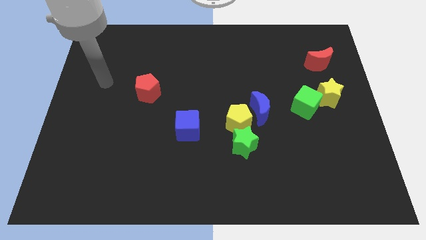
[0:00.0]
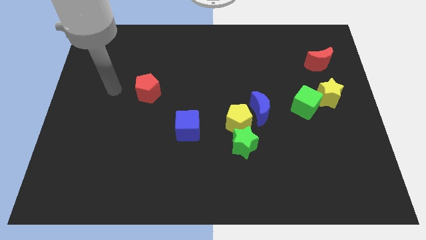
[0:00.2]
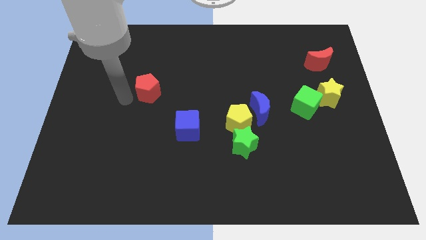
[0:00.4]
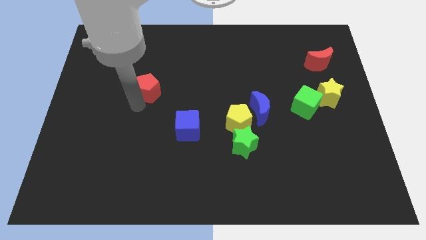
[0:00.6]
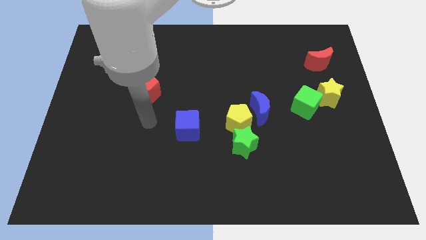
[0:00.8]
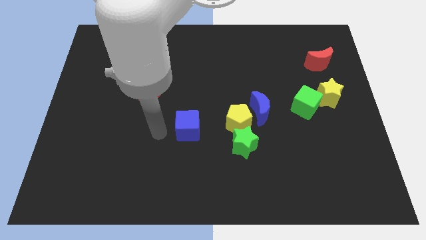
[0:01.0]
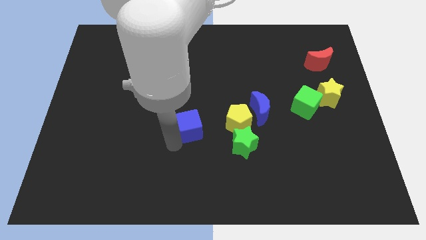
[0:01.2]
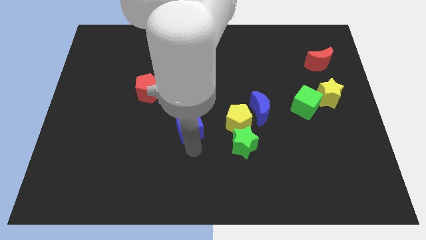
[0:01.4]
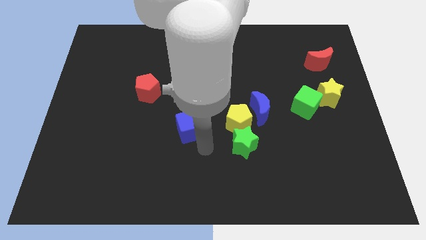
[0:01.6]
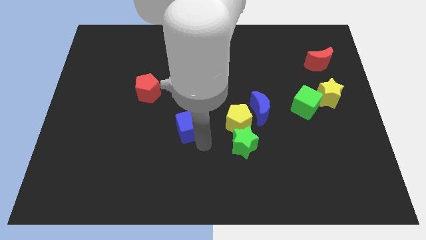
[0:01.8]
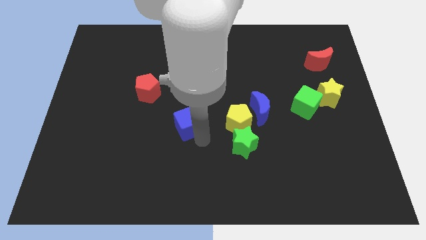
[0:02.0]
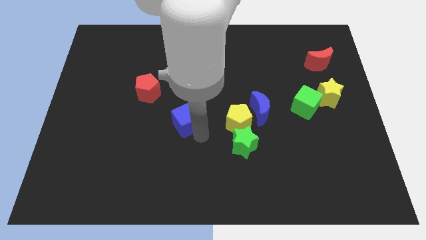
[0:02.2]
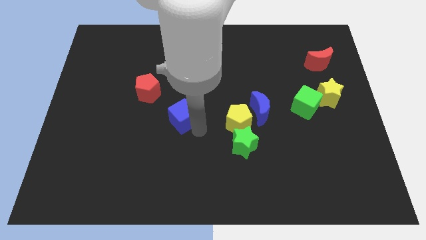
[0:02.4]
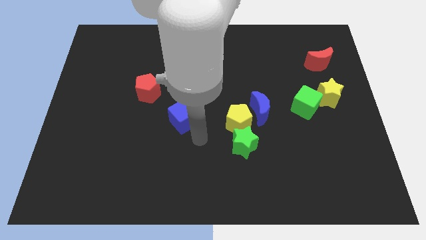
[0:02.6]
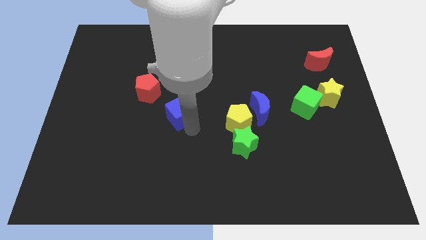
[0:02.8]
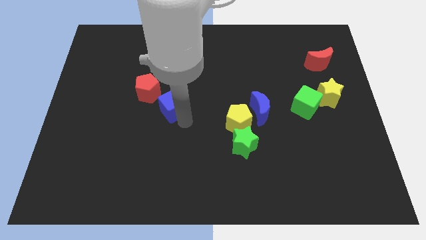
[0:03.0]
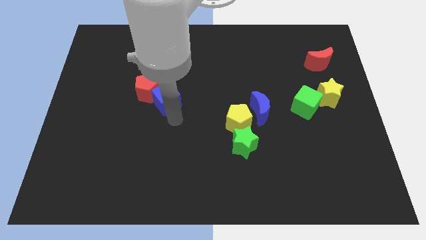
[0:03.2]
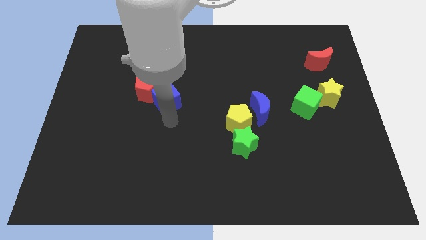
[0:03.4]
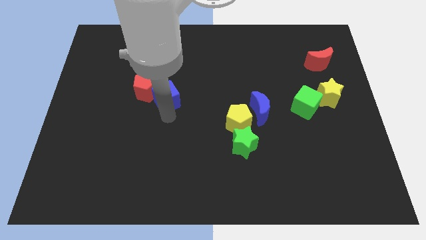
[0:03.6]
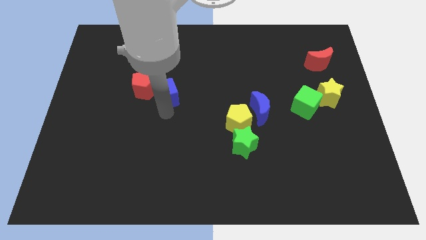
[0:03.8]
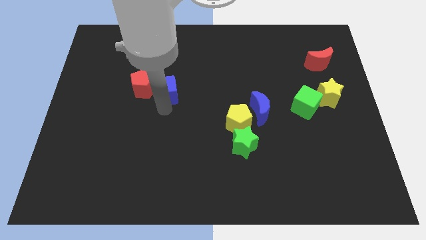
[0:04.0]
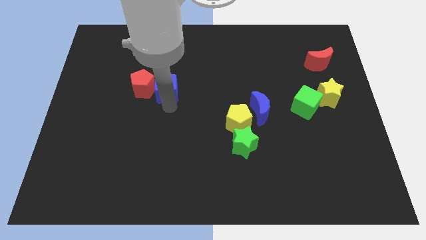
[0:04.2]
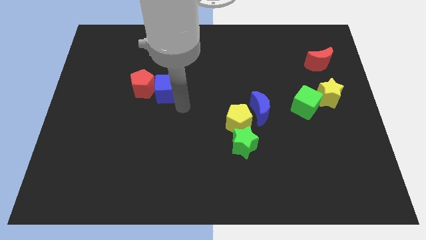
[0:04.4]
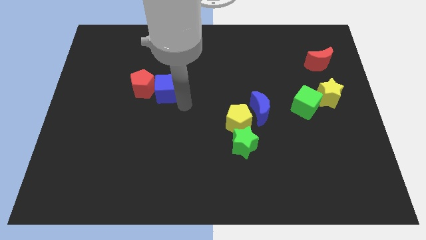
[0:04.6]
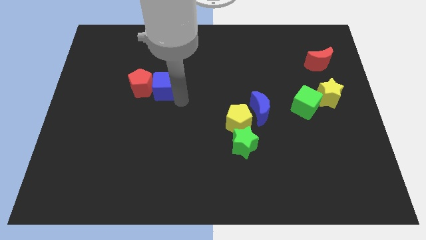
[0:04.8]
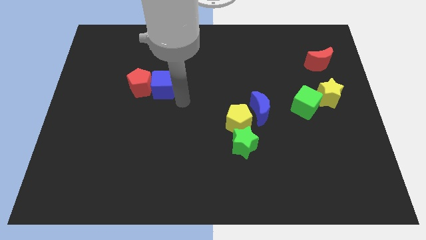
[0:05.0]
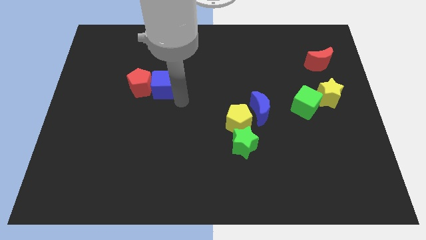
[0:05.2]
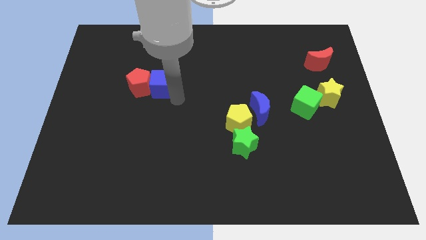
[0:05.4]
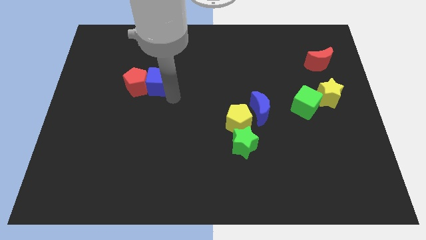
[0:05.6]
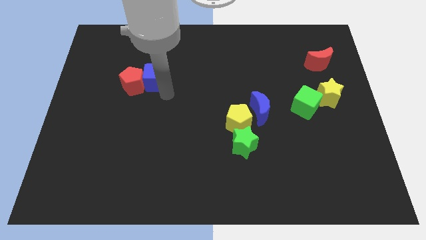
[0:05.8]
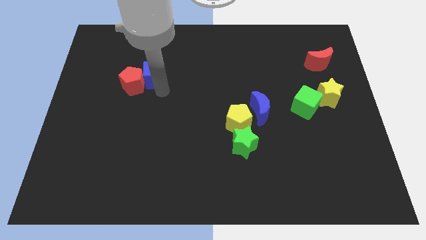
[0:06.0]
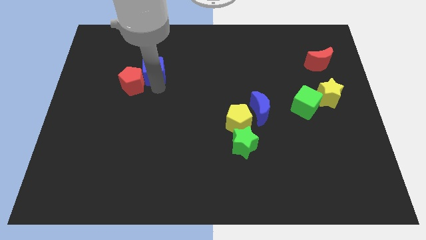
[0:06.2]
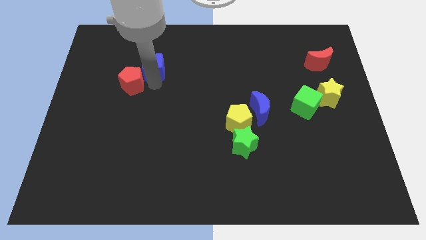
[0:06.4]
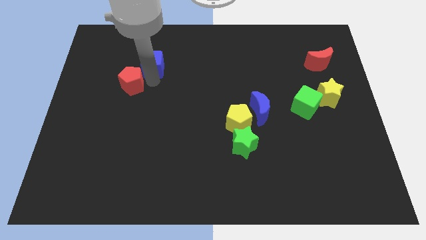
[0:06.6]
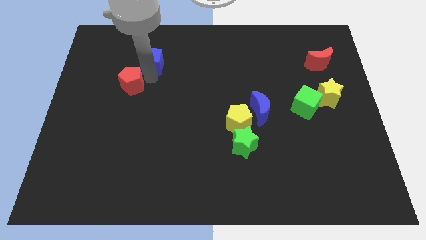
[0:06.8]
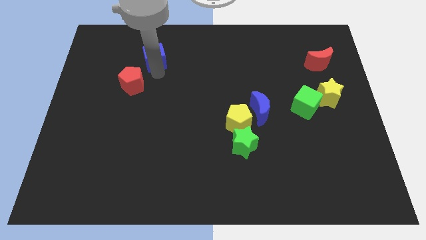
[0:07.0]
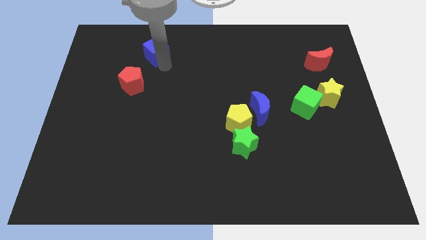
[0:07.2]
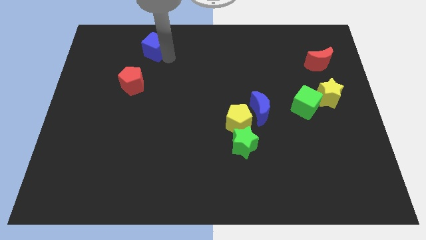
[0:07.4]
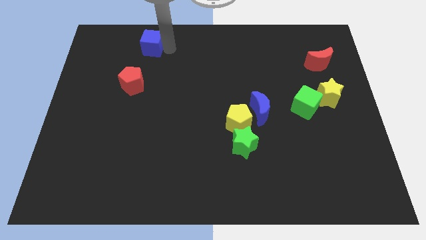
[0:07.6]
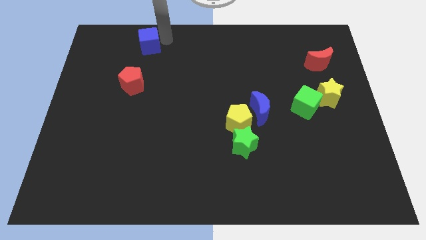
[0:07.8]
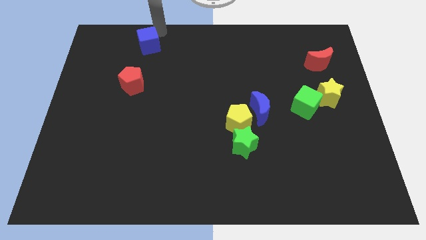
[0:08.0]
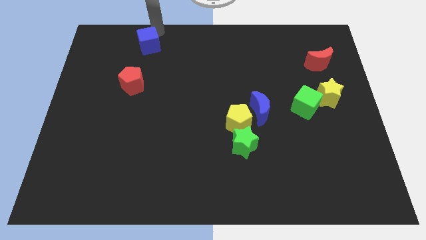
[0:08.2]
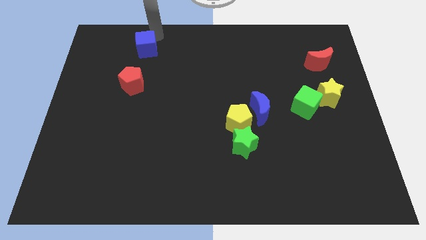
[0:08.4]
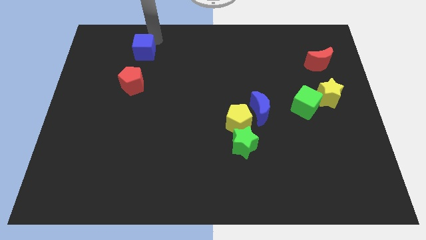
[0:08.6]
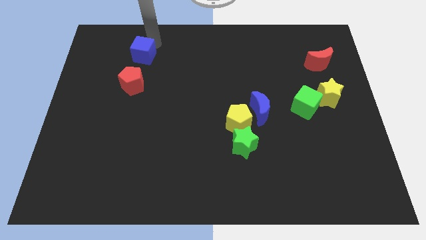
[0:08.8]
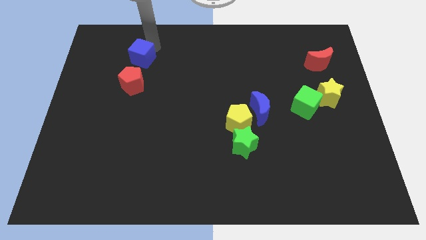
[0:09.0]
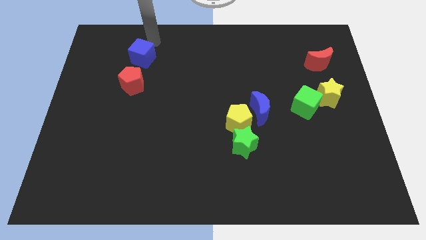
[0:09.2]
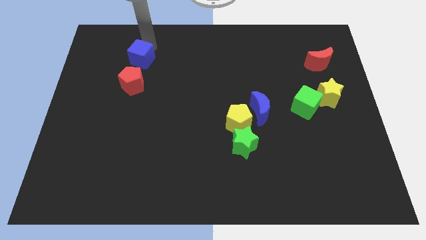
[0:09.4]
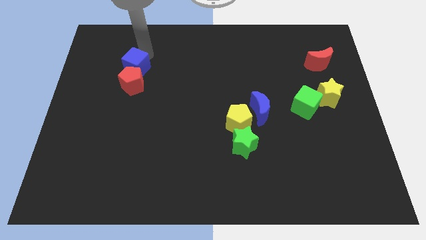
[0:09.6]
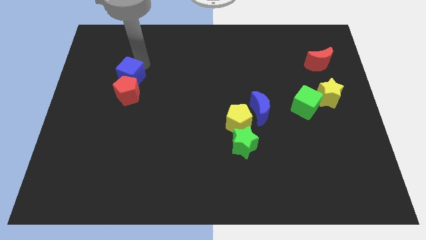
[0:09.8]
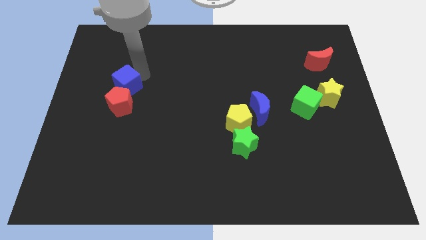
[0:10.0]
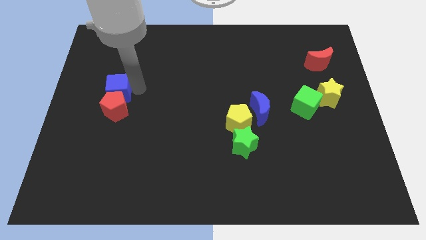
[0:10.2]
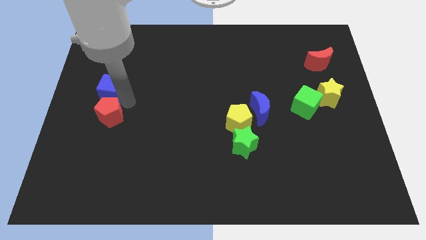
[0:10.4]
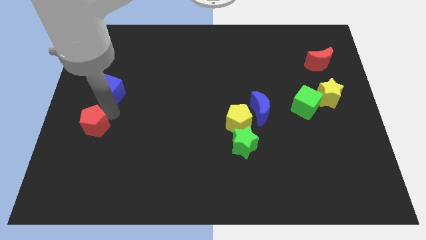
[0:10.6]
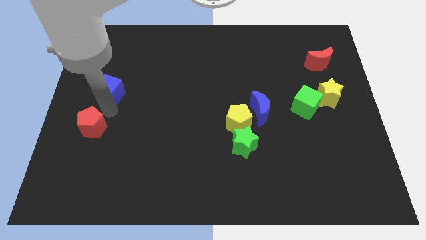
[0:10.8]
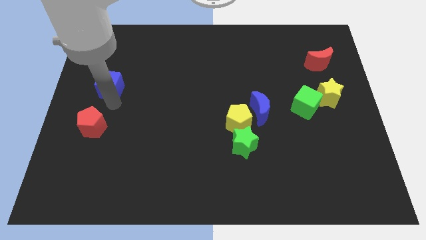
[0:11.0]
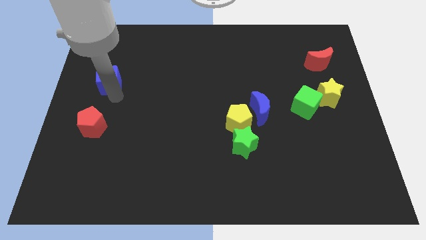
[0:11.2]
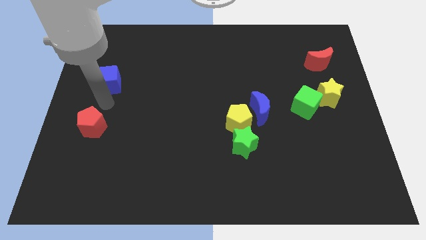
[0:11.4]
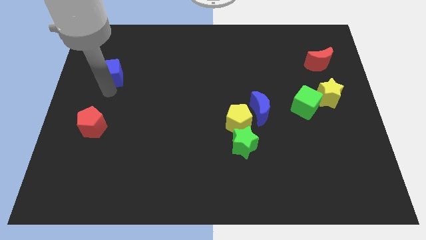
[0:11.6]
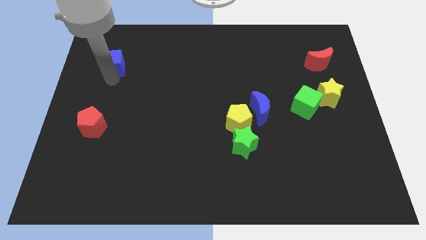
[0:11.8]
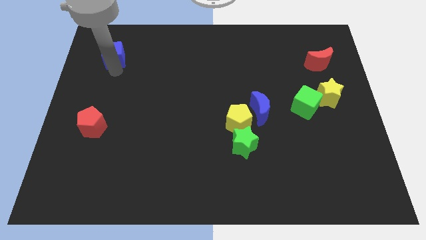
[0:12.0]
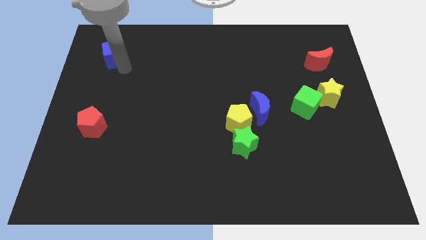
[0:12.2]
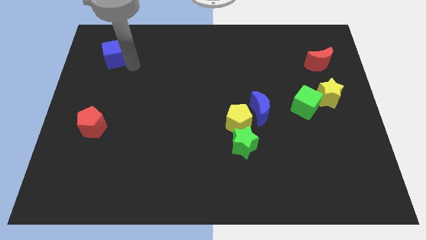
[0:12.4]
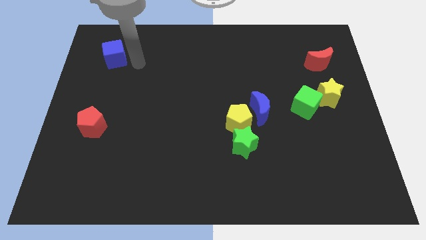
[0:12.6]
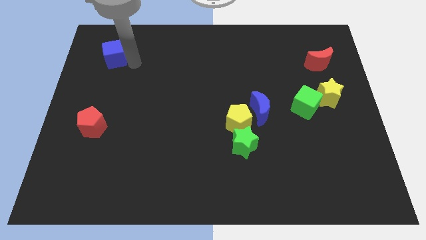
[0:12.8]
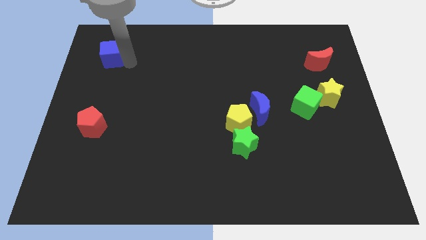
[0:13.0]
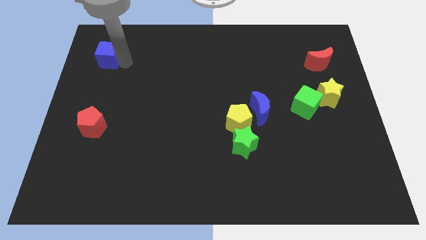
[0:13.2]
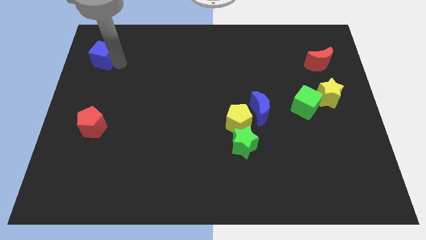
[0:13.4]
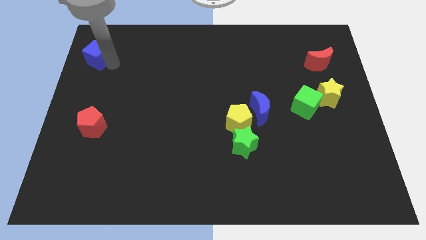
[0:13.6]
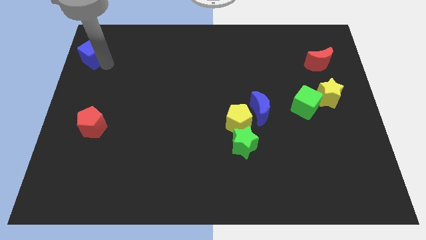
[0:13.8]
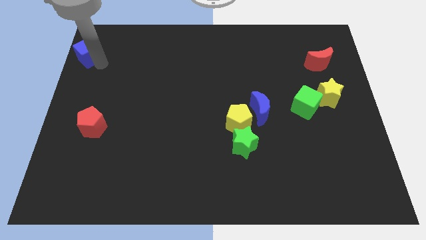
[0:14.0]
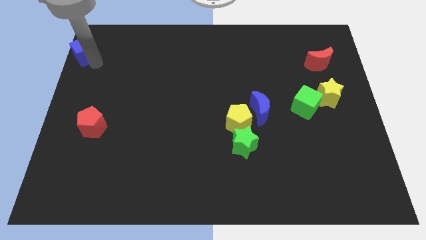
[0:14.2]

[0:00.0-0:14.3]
put the blue cube to the top left of the board
